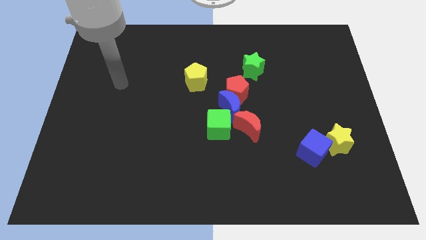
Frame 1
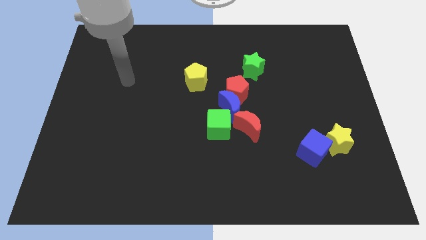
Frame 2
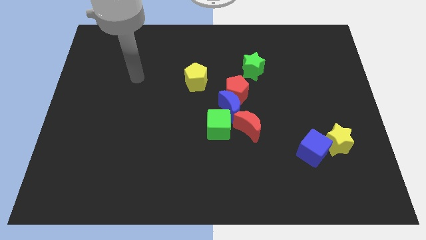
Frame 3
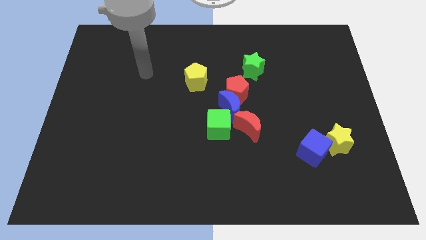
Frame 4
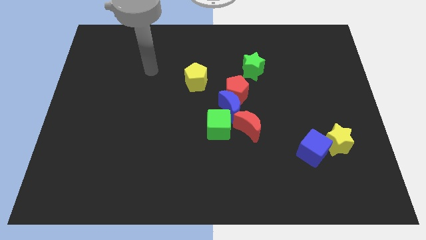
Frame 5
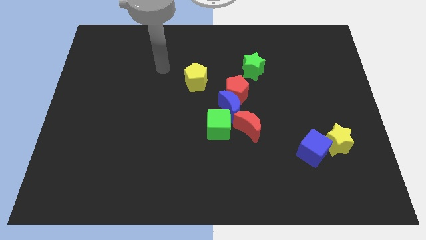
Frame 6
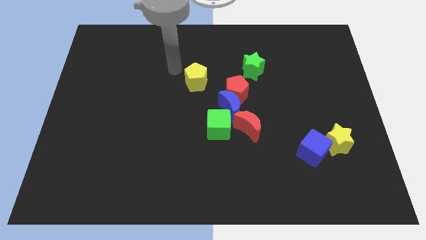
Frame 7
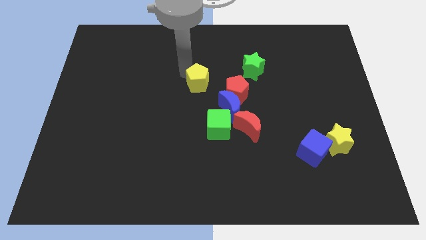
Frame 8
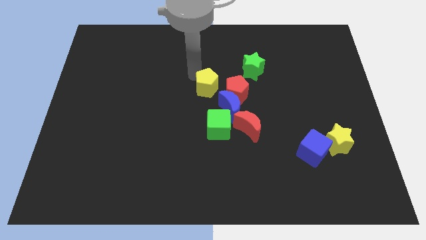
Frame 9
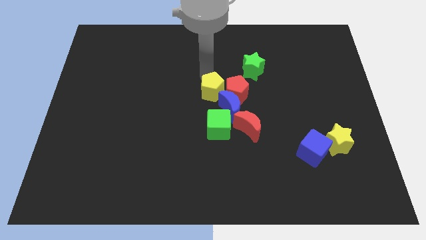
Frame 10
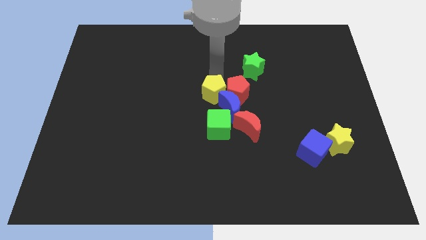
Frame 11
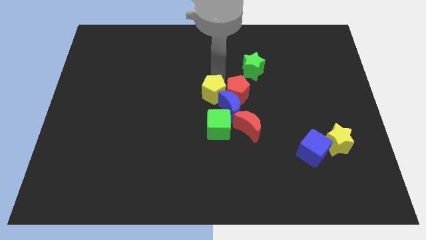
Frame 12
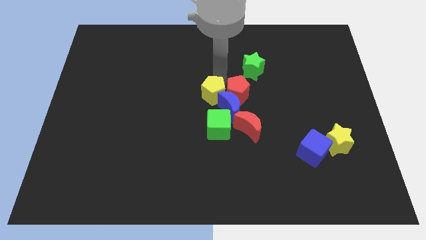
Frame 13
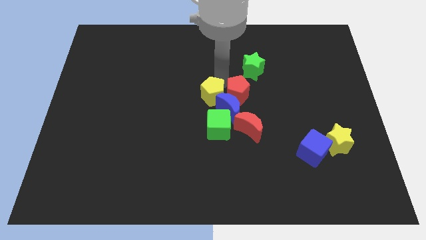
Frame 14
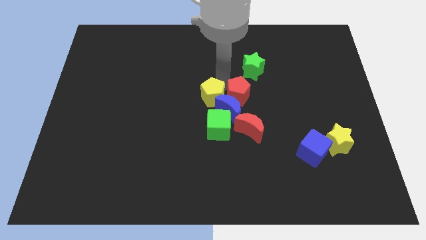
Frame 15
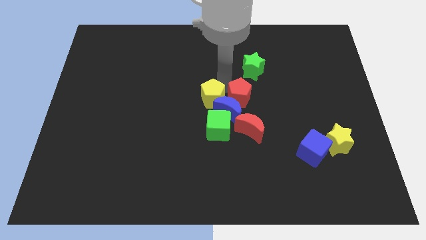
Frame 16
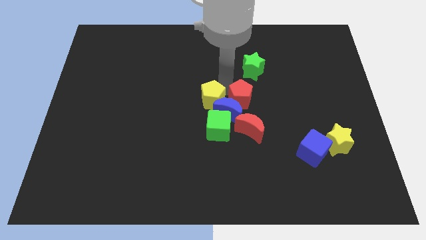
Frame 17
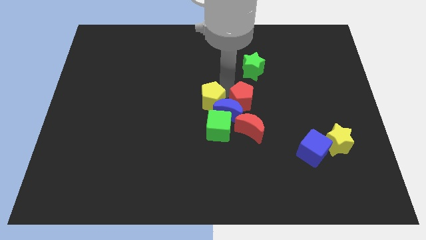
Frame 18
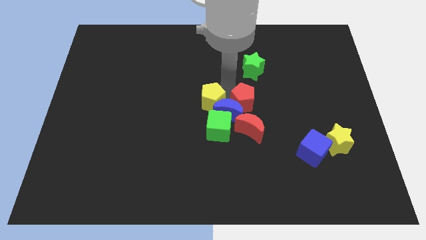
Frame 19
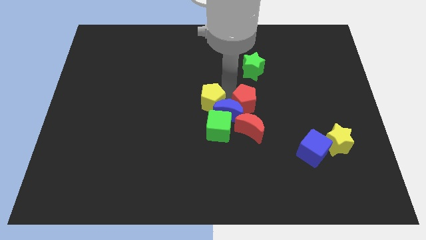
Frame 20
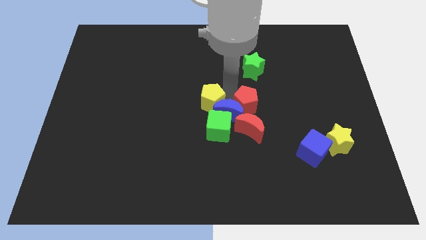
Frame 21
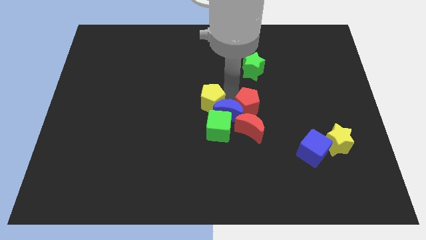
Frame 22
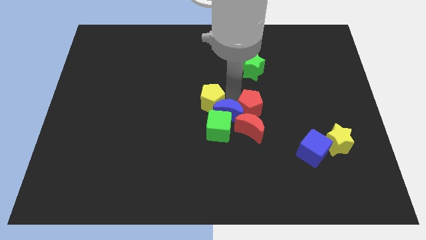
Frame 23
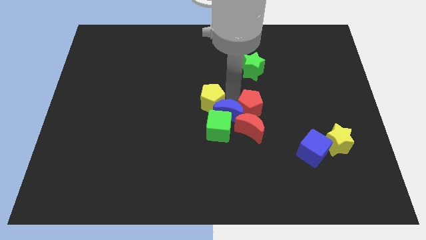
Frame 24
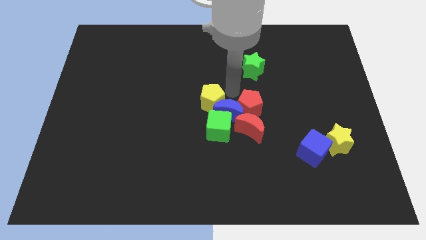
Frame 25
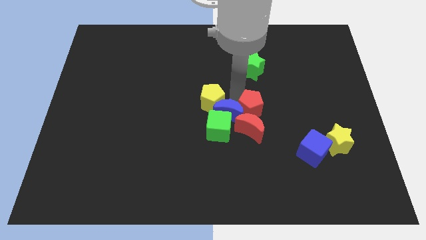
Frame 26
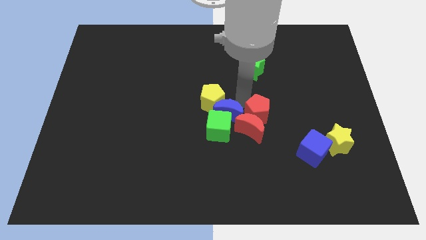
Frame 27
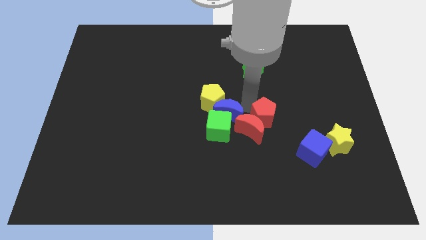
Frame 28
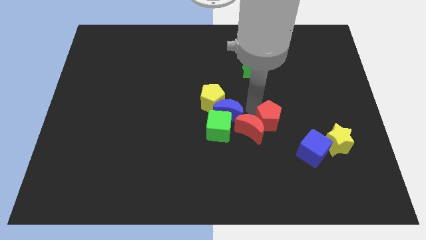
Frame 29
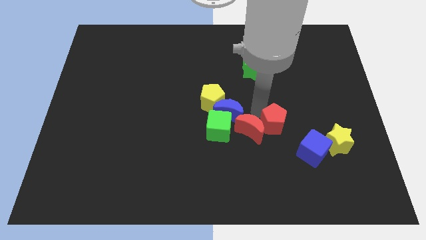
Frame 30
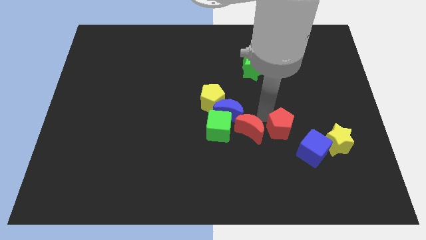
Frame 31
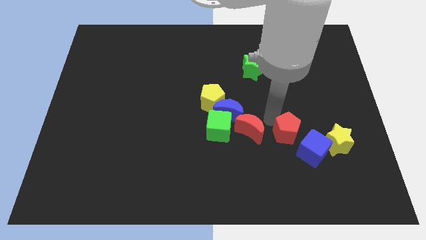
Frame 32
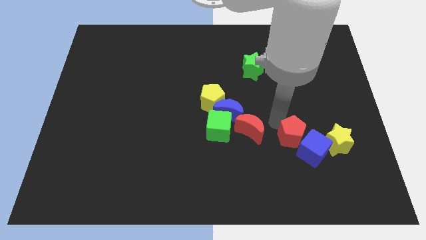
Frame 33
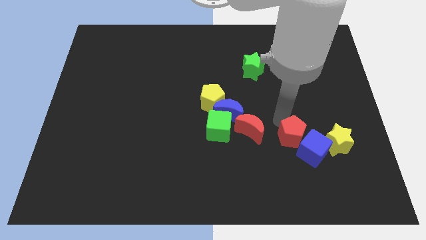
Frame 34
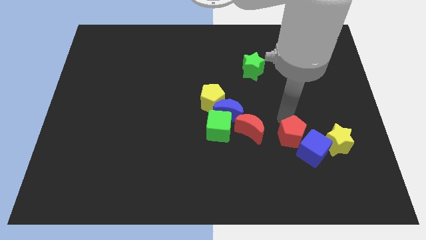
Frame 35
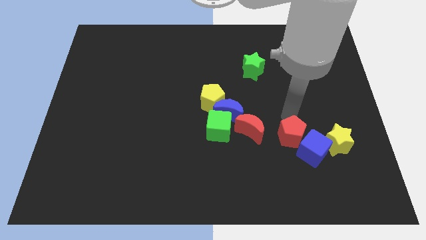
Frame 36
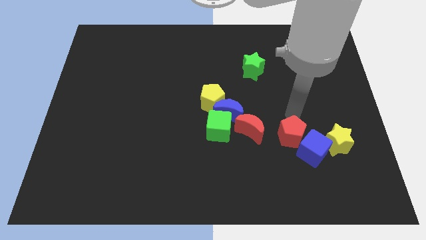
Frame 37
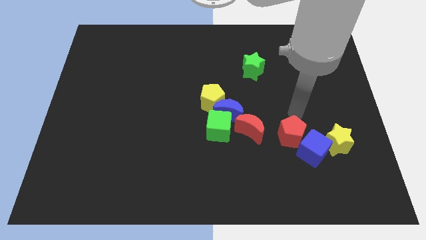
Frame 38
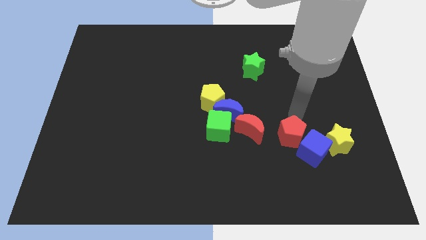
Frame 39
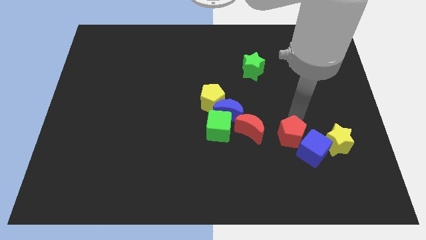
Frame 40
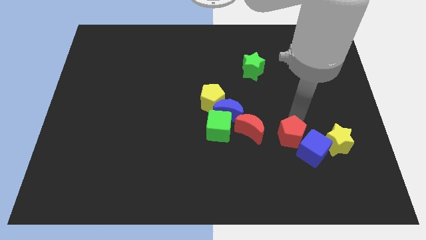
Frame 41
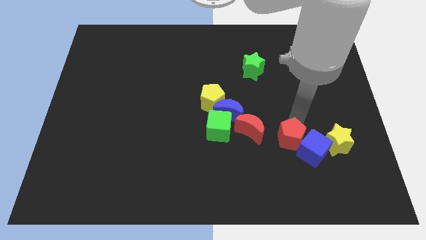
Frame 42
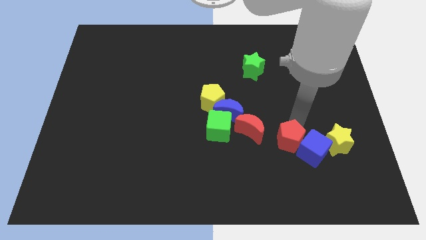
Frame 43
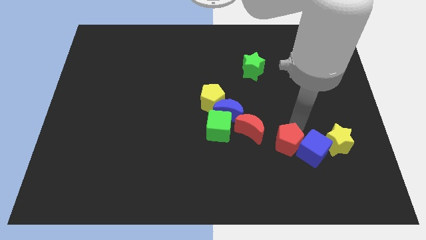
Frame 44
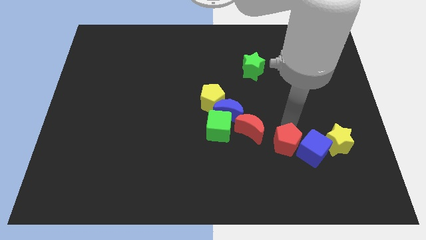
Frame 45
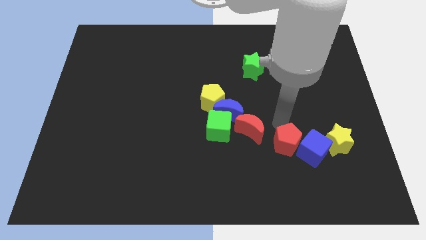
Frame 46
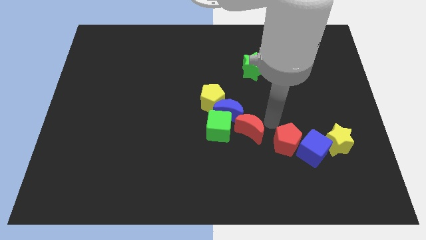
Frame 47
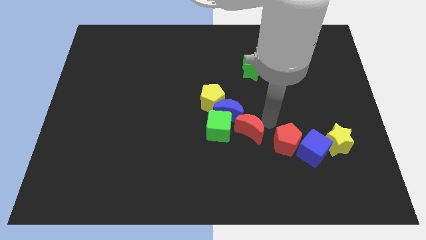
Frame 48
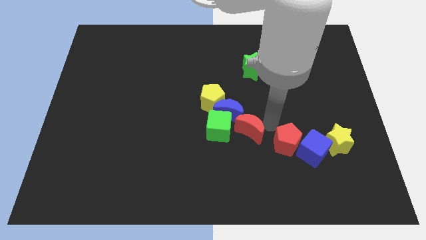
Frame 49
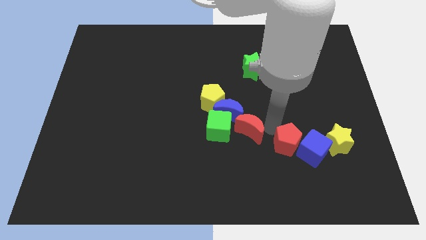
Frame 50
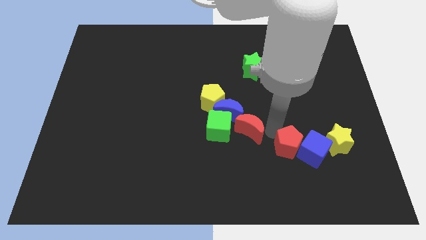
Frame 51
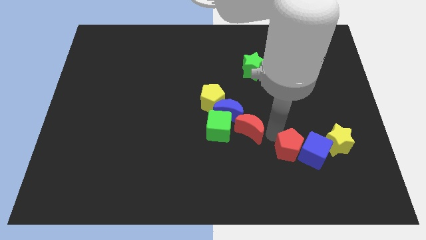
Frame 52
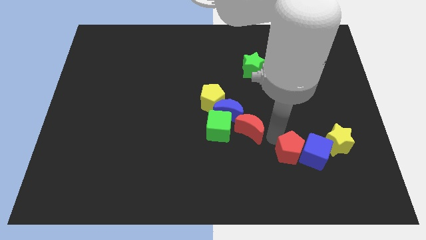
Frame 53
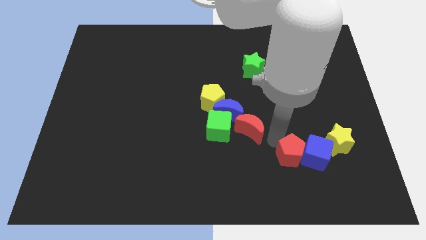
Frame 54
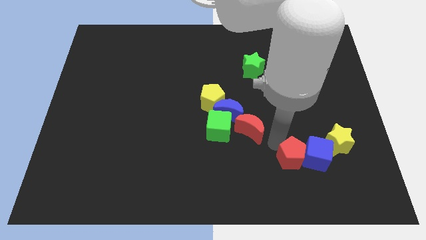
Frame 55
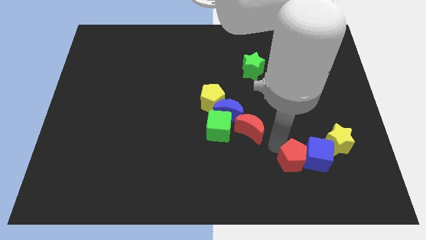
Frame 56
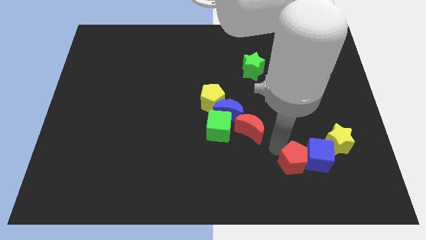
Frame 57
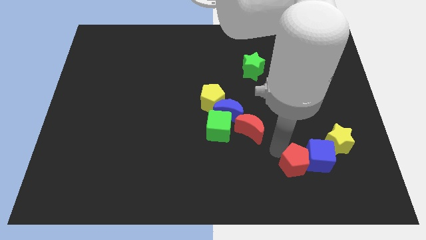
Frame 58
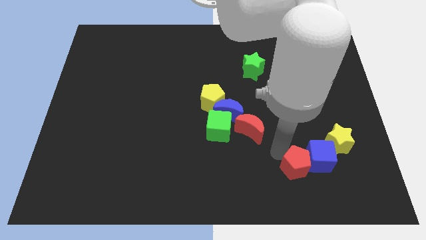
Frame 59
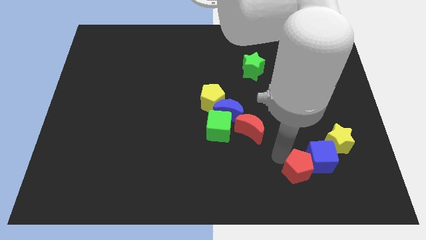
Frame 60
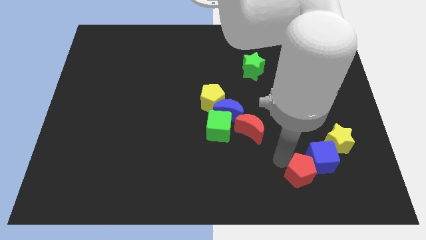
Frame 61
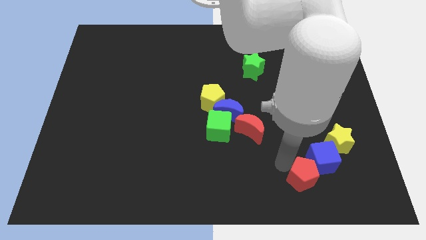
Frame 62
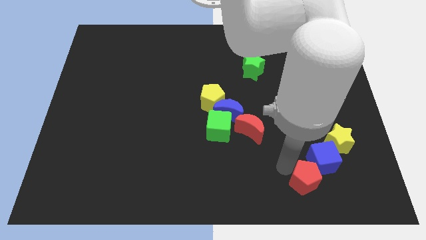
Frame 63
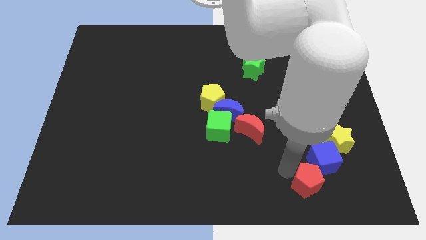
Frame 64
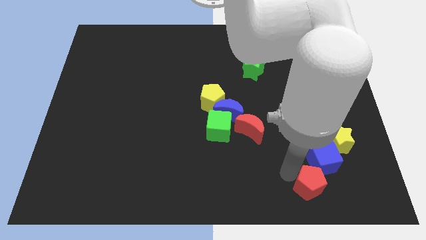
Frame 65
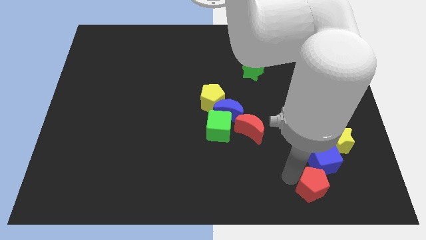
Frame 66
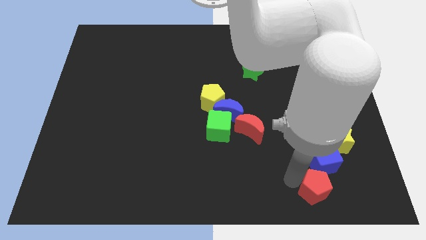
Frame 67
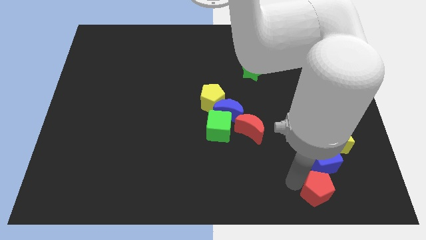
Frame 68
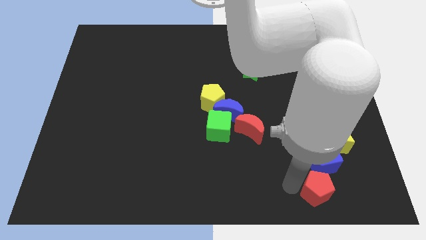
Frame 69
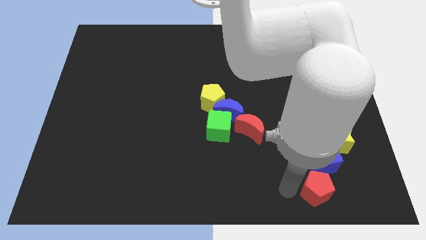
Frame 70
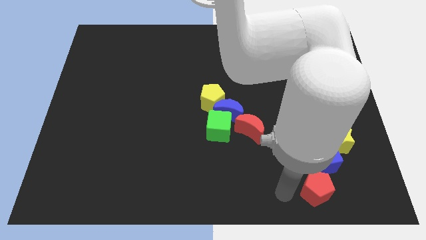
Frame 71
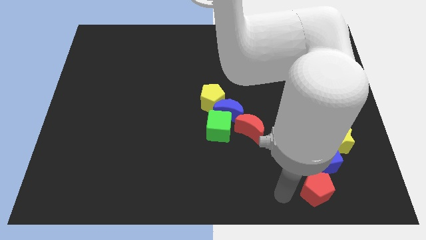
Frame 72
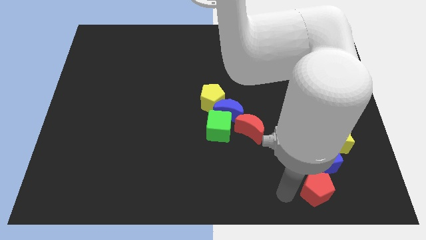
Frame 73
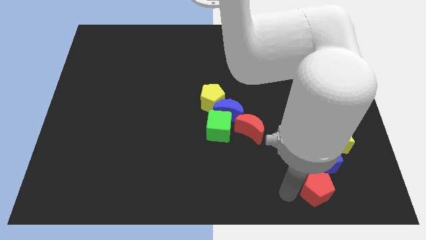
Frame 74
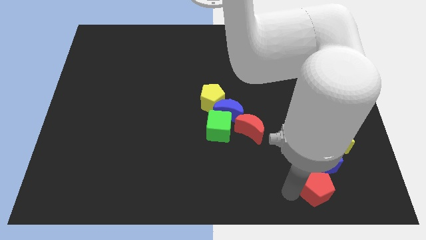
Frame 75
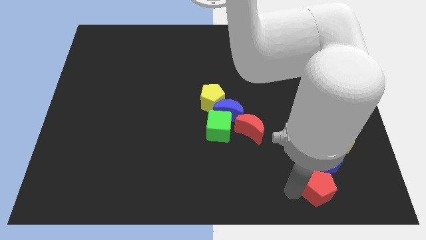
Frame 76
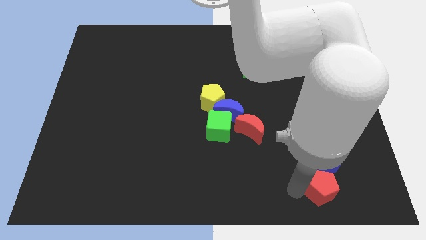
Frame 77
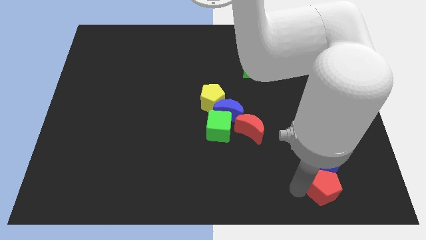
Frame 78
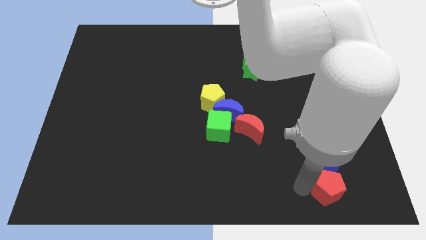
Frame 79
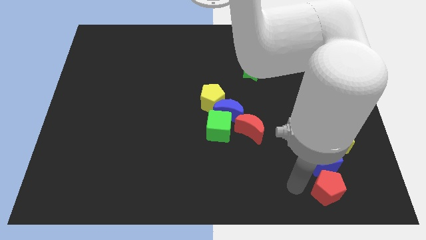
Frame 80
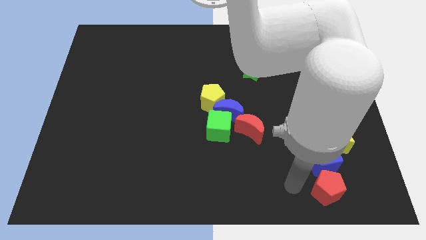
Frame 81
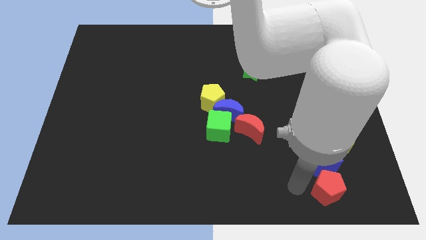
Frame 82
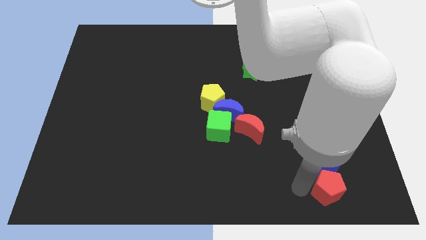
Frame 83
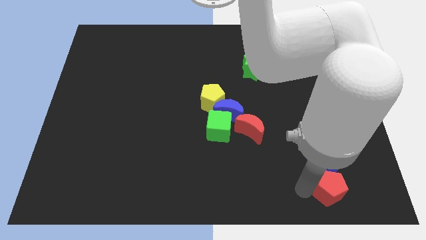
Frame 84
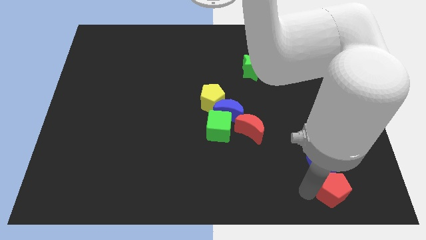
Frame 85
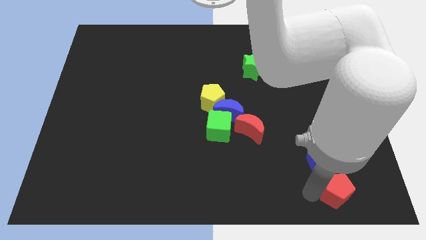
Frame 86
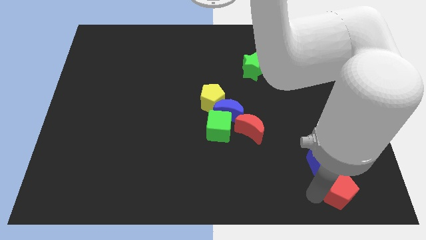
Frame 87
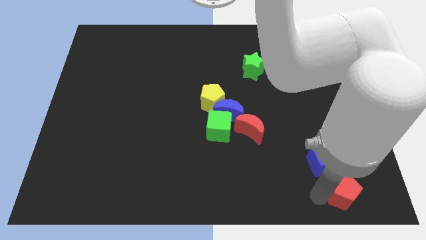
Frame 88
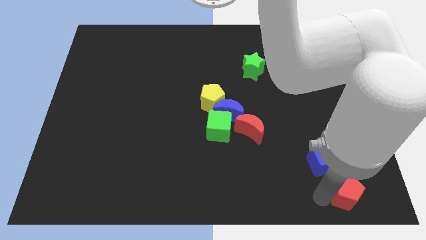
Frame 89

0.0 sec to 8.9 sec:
move the red pentagon to the lower right corner
